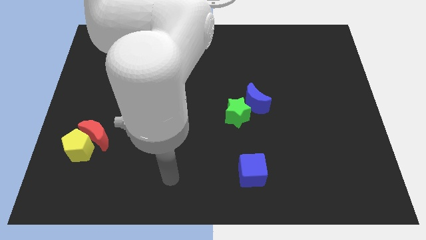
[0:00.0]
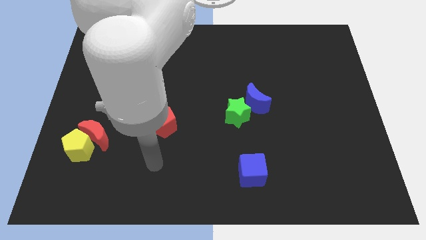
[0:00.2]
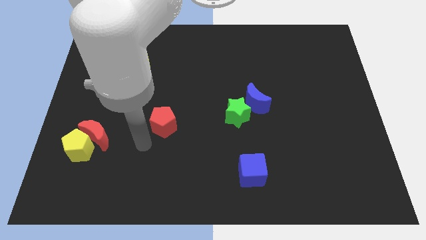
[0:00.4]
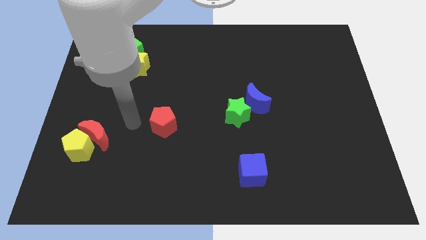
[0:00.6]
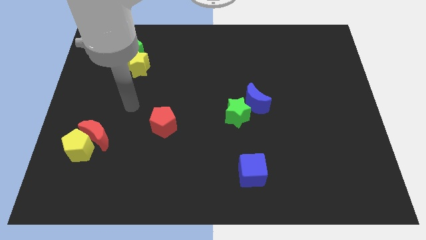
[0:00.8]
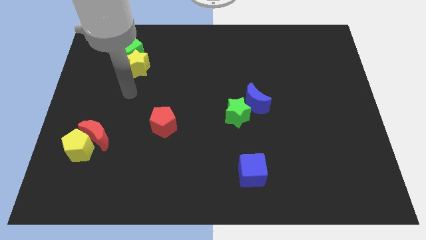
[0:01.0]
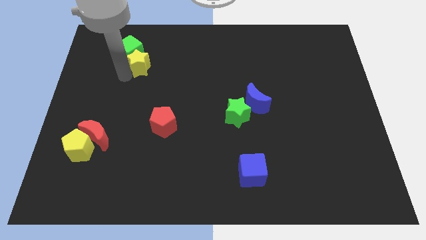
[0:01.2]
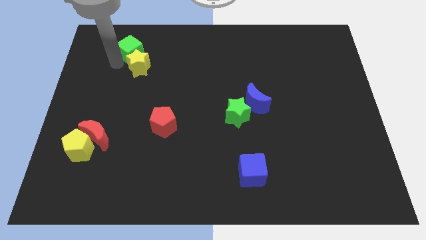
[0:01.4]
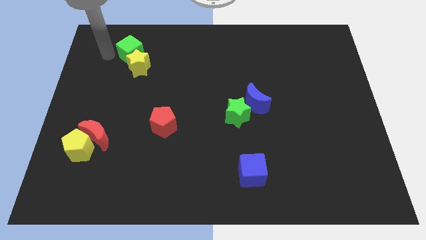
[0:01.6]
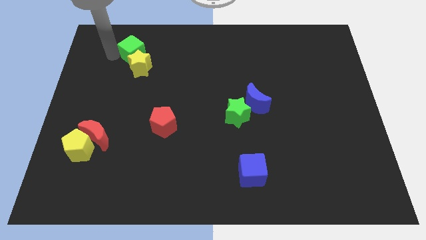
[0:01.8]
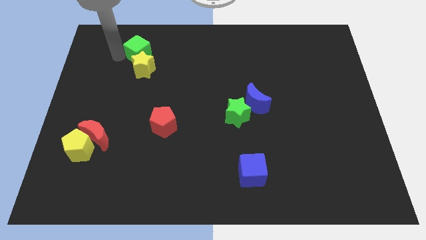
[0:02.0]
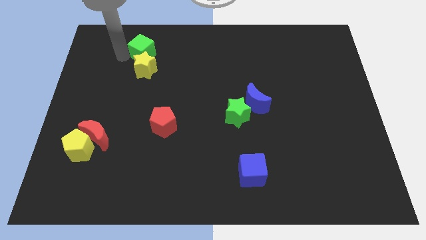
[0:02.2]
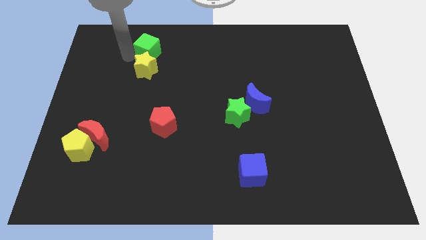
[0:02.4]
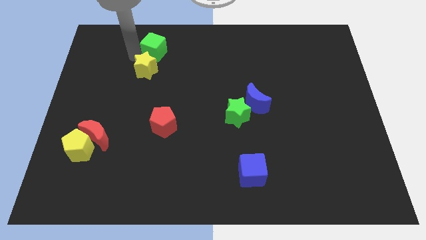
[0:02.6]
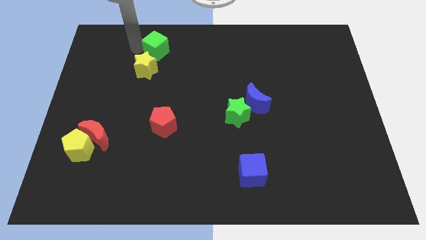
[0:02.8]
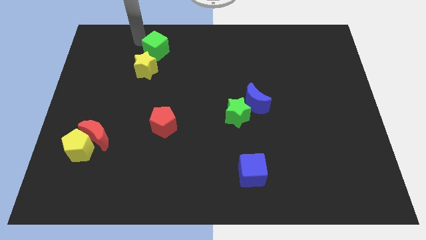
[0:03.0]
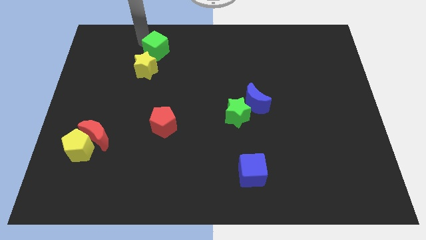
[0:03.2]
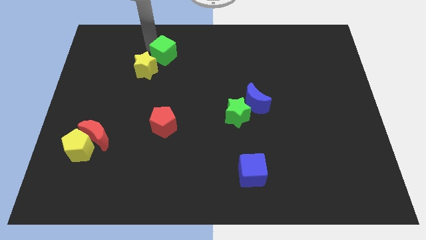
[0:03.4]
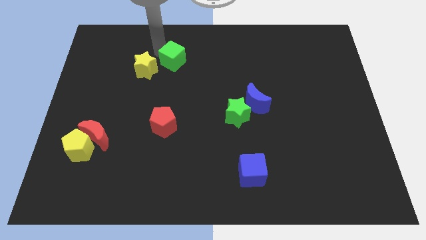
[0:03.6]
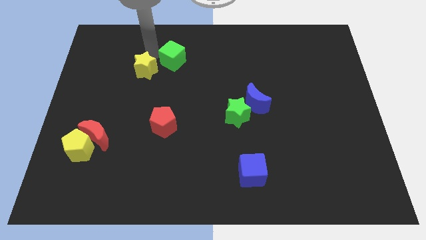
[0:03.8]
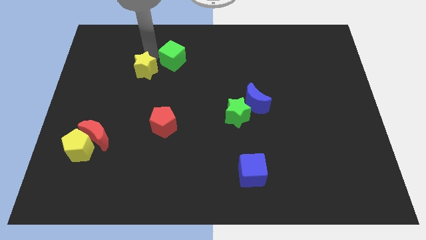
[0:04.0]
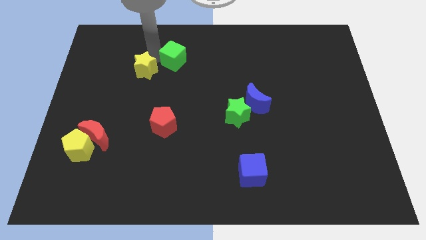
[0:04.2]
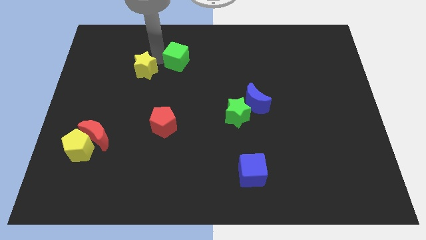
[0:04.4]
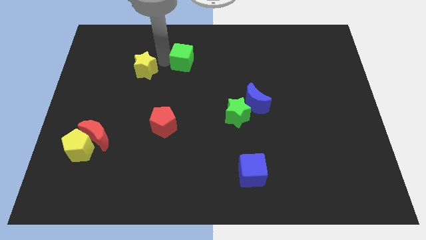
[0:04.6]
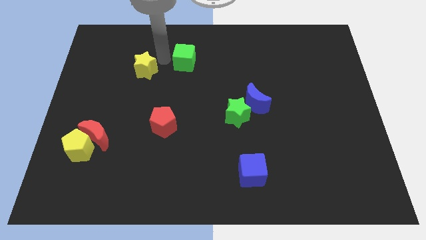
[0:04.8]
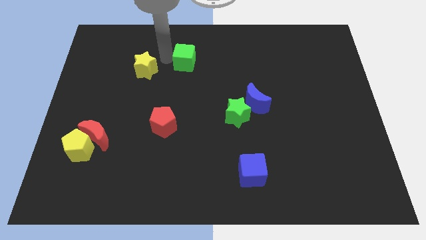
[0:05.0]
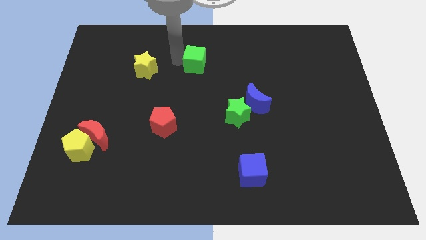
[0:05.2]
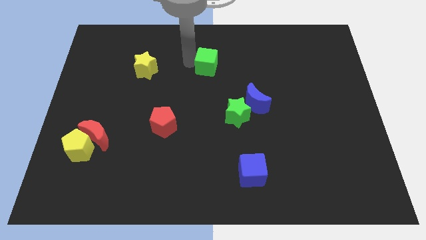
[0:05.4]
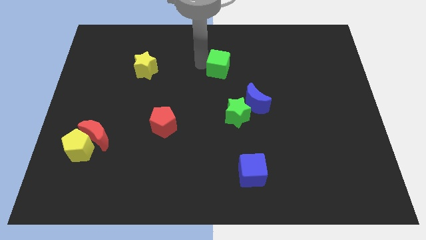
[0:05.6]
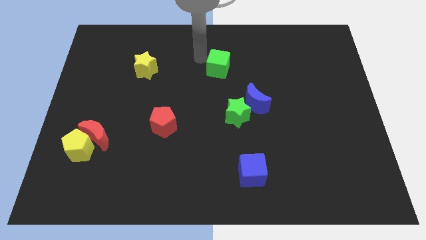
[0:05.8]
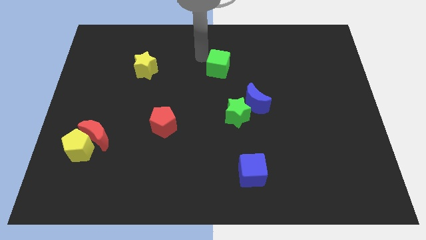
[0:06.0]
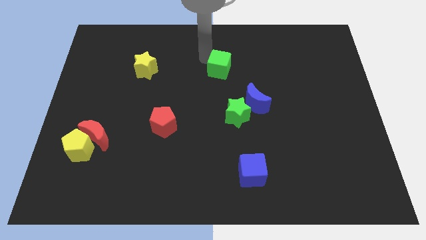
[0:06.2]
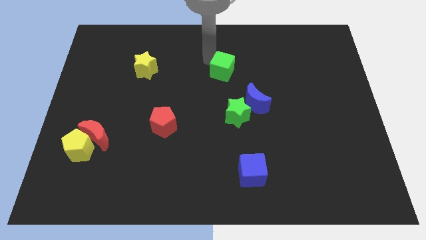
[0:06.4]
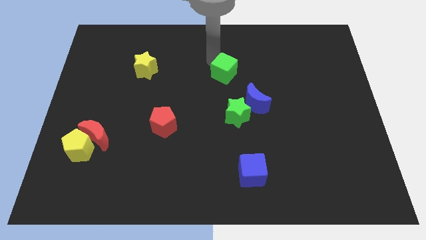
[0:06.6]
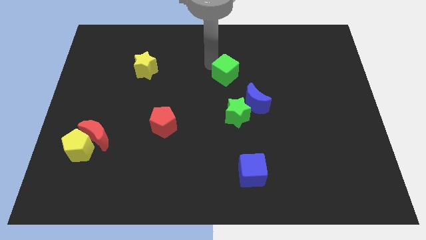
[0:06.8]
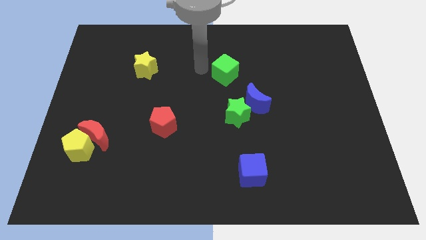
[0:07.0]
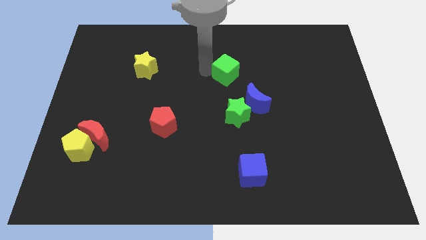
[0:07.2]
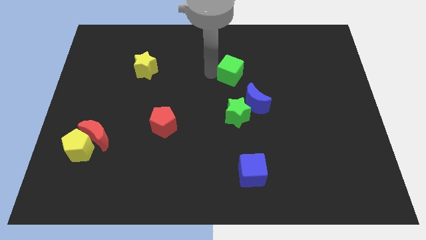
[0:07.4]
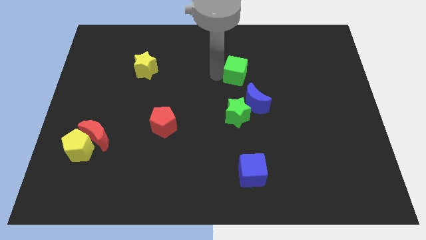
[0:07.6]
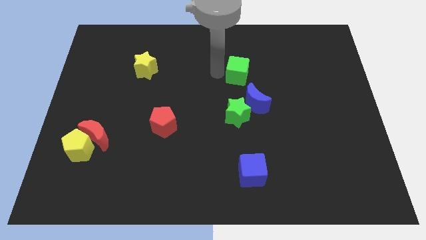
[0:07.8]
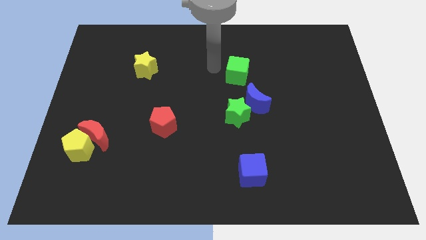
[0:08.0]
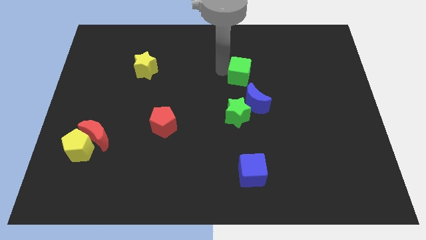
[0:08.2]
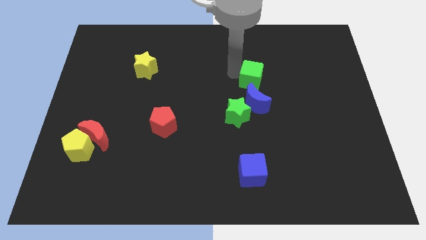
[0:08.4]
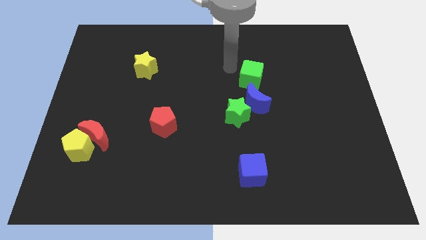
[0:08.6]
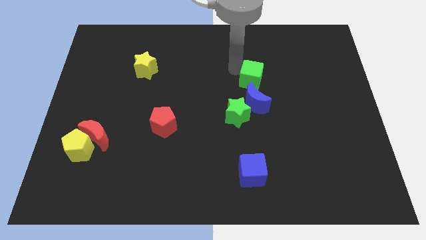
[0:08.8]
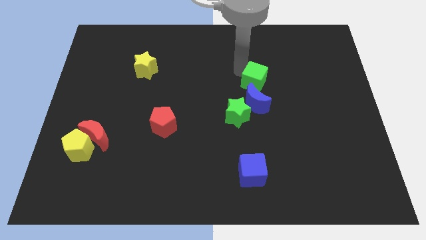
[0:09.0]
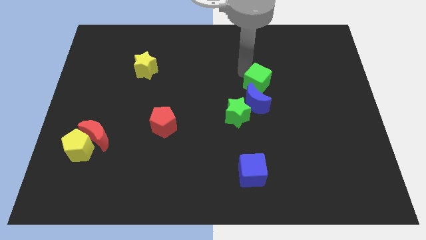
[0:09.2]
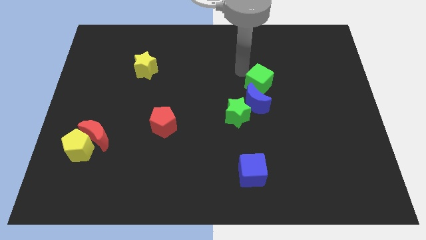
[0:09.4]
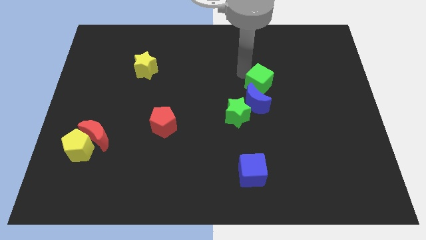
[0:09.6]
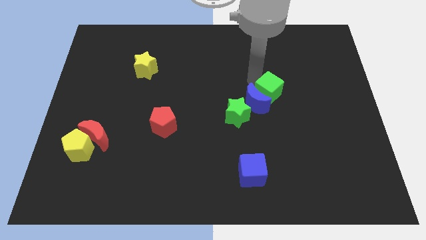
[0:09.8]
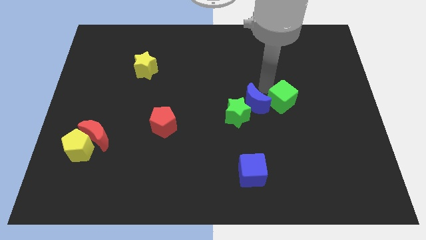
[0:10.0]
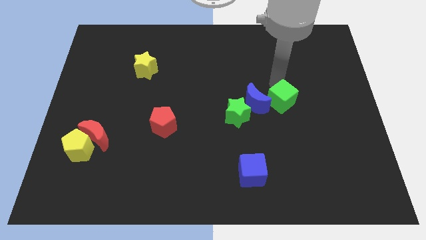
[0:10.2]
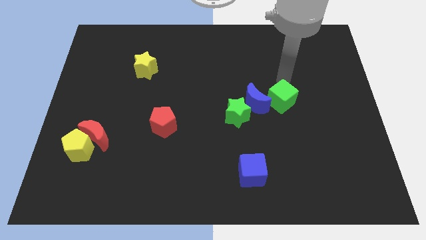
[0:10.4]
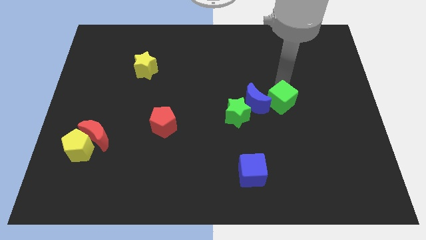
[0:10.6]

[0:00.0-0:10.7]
slide the green cube to the bottom right of the blue moon

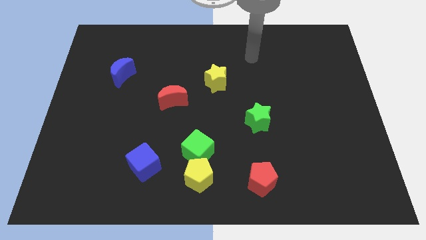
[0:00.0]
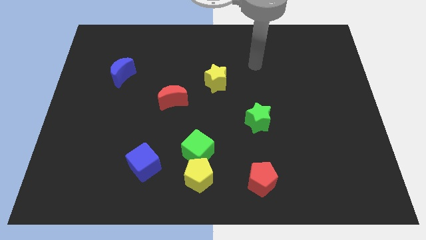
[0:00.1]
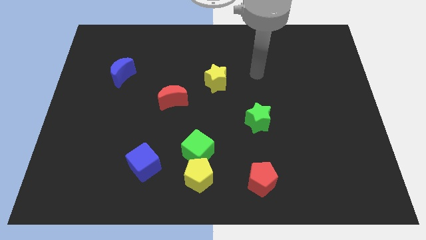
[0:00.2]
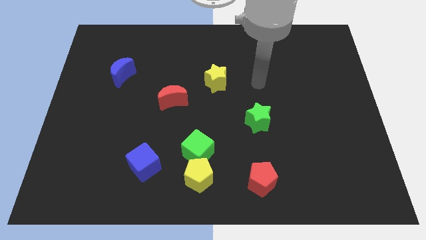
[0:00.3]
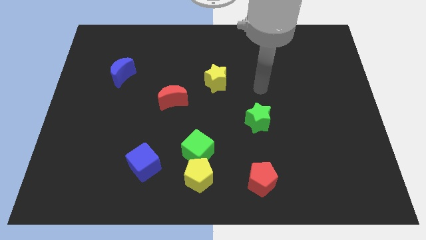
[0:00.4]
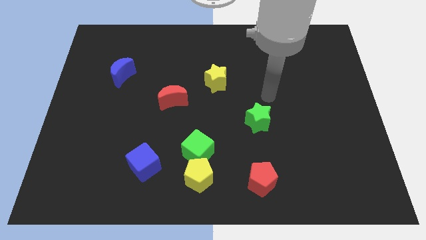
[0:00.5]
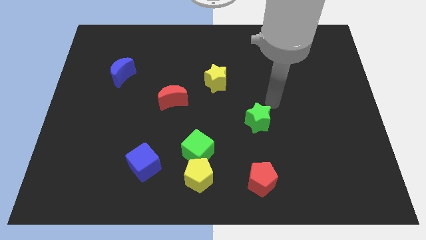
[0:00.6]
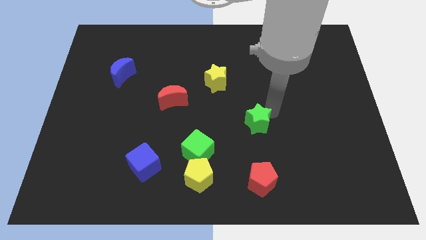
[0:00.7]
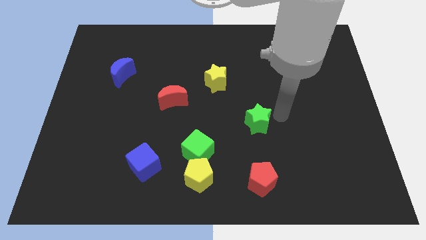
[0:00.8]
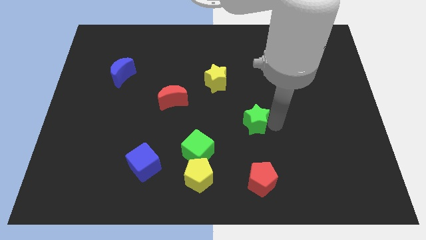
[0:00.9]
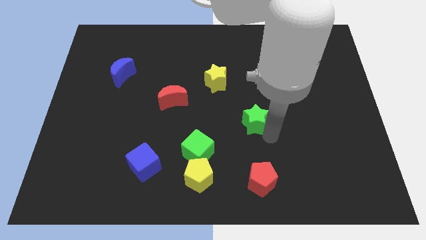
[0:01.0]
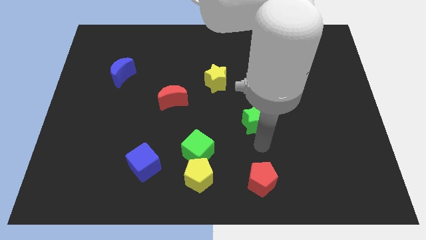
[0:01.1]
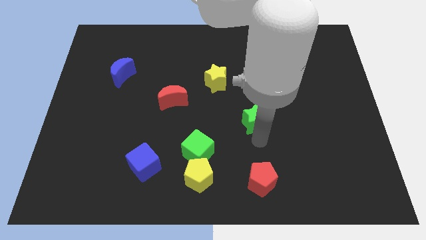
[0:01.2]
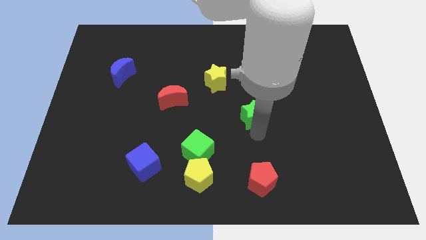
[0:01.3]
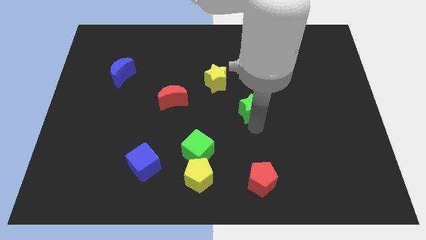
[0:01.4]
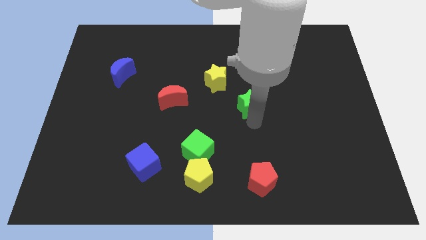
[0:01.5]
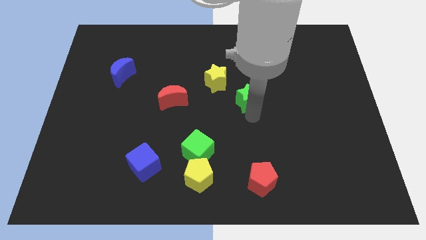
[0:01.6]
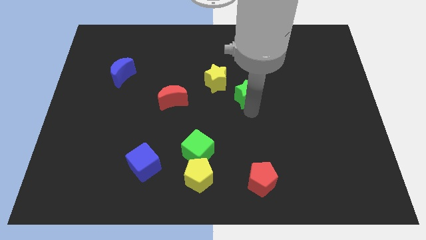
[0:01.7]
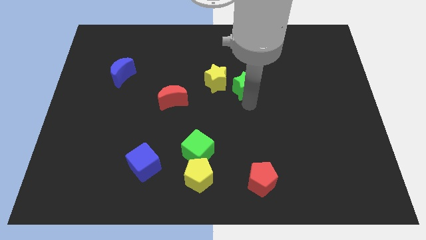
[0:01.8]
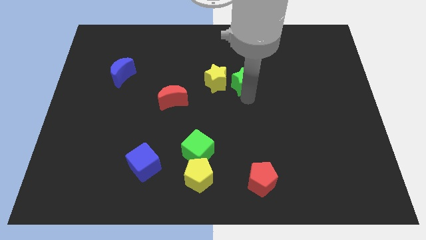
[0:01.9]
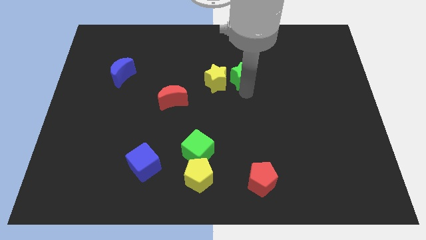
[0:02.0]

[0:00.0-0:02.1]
push the green star to the top right of the yellow star
